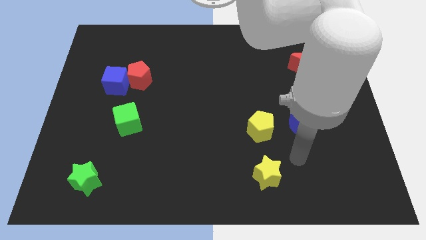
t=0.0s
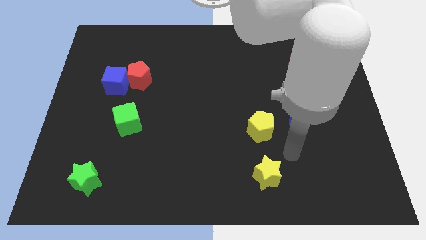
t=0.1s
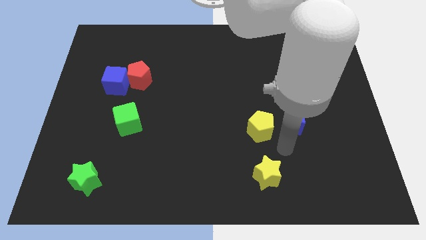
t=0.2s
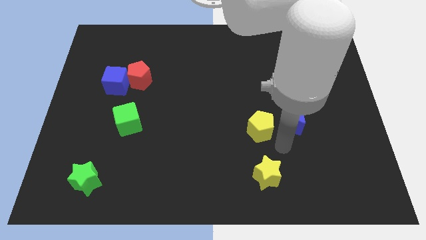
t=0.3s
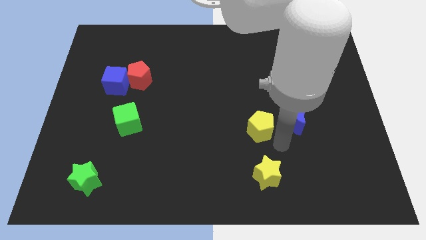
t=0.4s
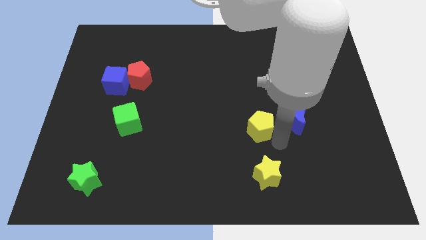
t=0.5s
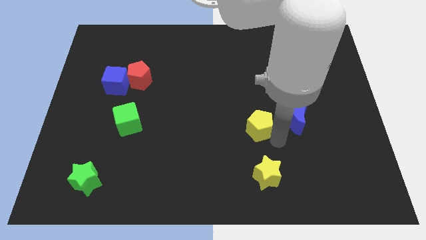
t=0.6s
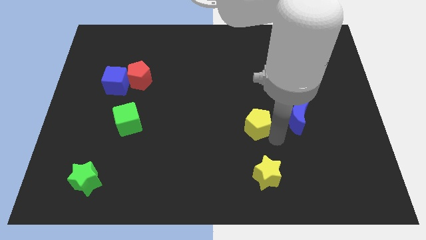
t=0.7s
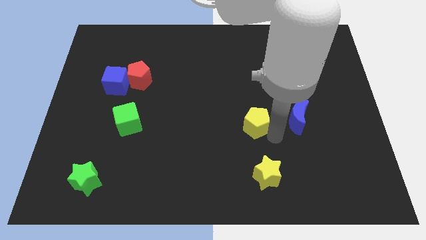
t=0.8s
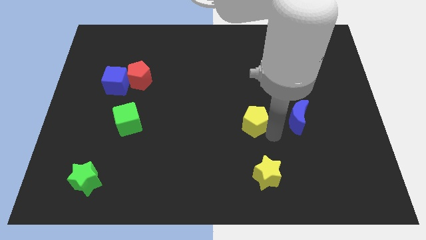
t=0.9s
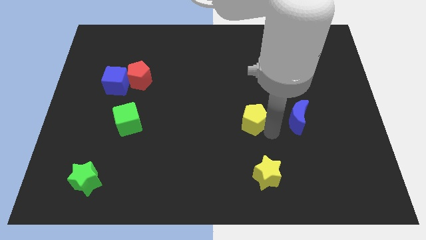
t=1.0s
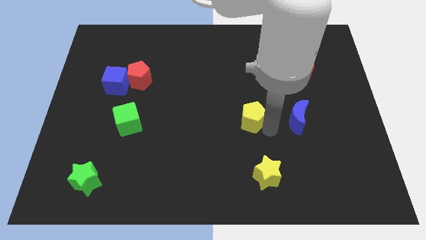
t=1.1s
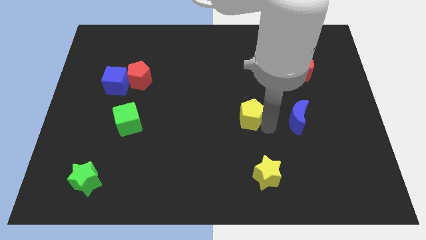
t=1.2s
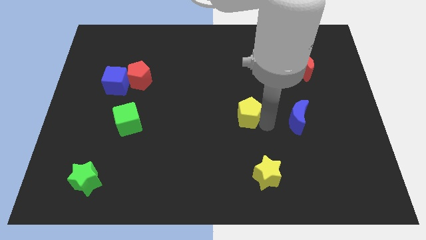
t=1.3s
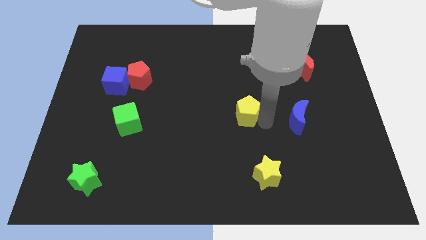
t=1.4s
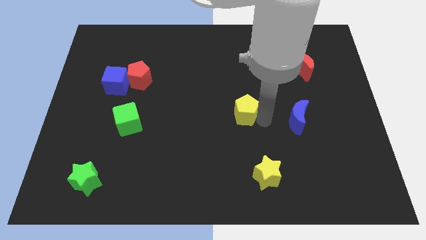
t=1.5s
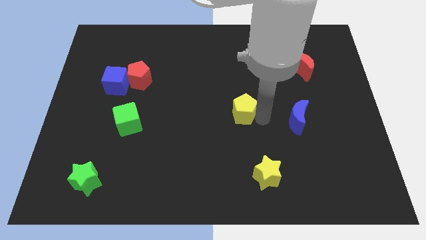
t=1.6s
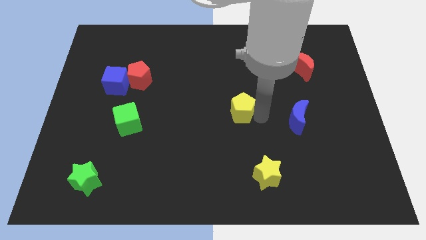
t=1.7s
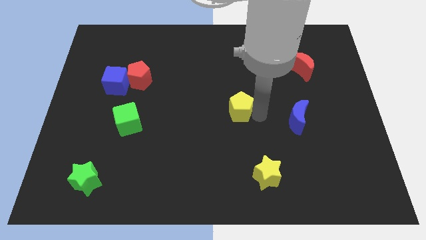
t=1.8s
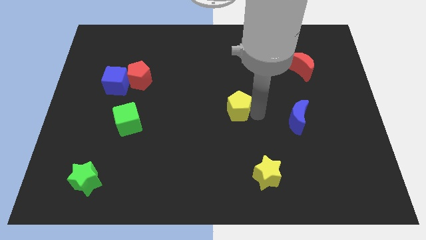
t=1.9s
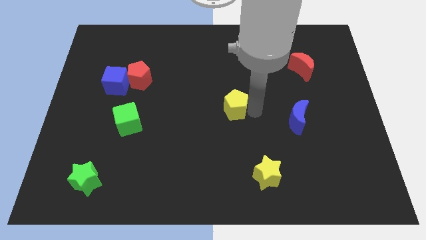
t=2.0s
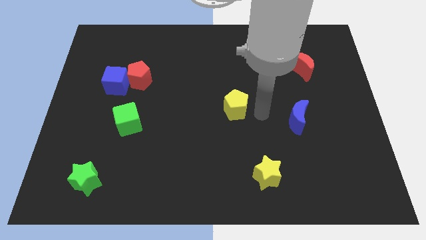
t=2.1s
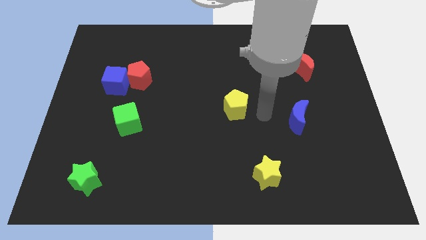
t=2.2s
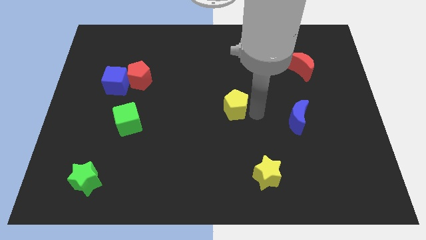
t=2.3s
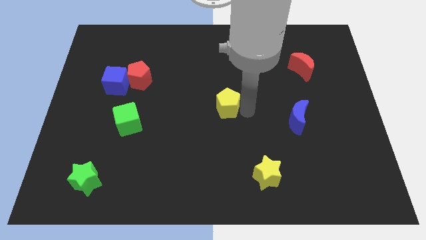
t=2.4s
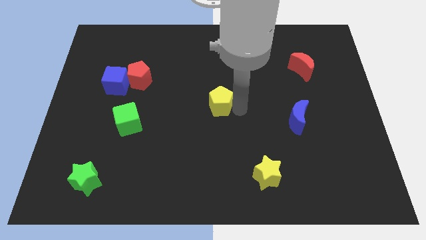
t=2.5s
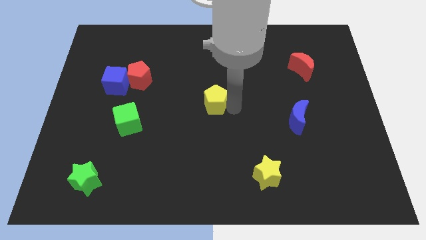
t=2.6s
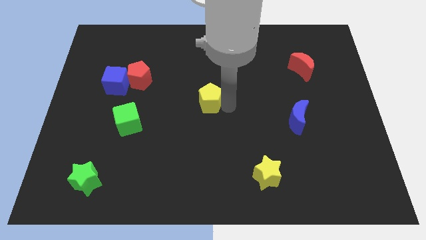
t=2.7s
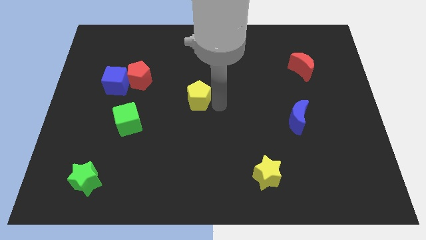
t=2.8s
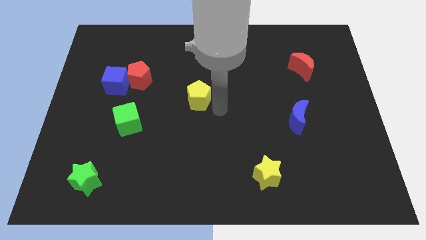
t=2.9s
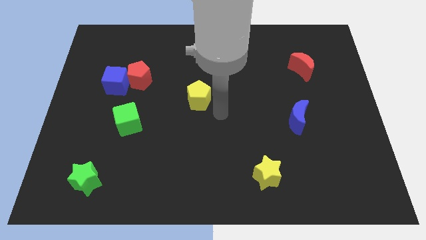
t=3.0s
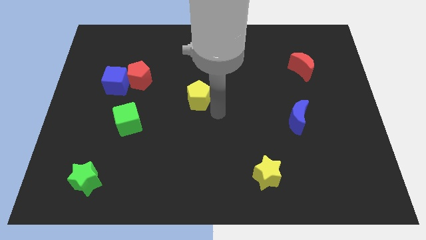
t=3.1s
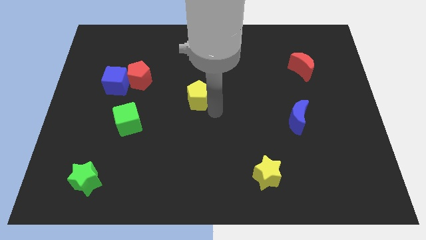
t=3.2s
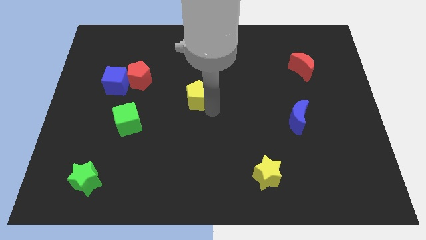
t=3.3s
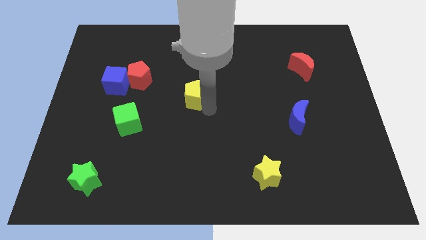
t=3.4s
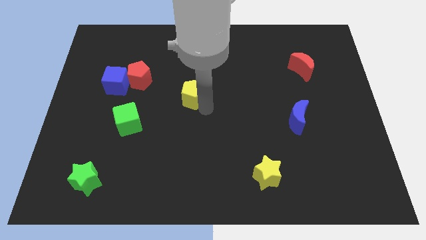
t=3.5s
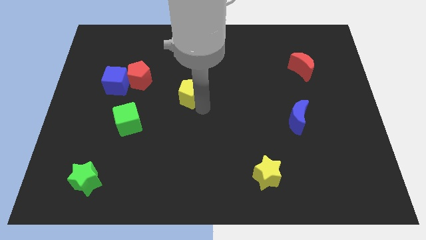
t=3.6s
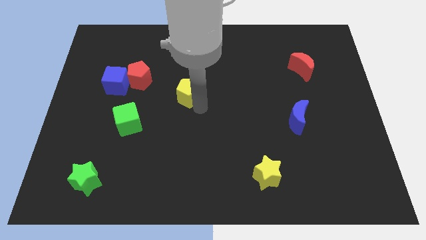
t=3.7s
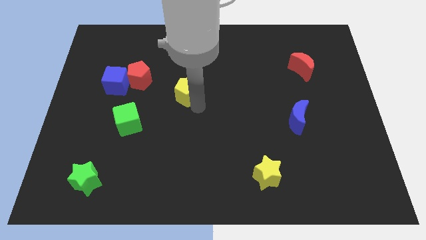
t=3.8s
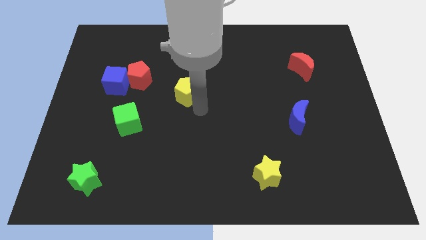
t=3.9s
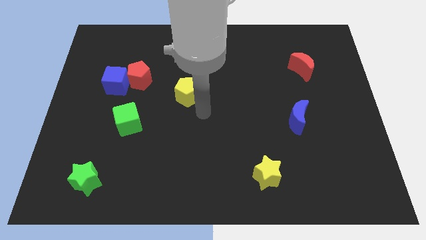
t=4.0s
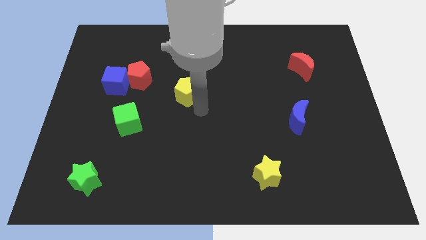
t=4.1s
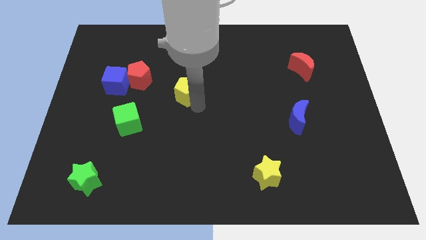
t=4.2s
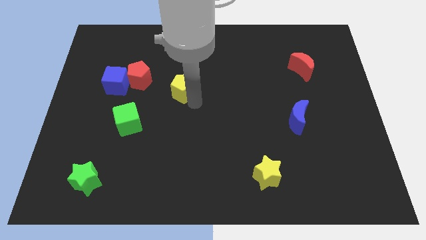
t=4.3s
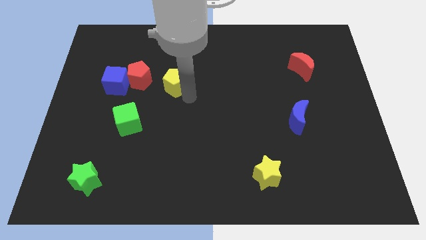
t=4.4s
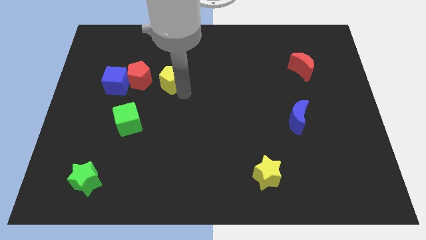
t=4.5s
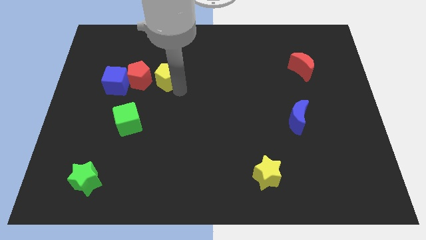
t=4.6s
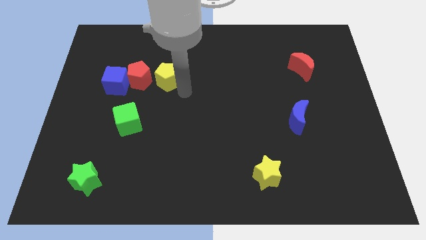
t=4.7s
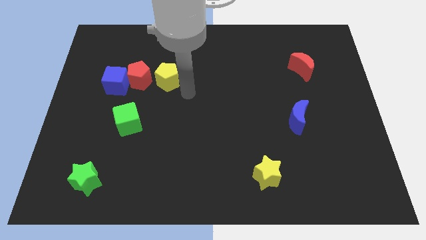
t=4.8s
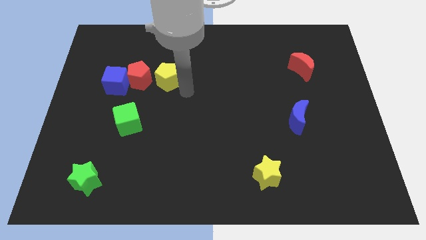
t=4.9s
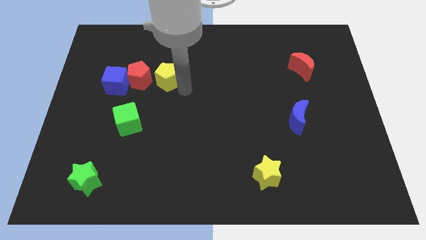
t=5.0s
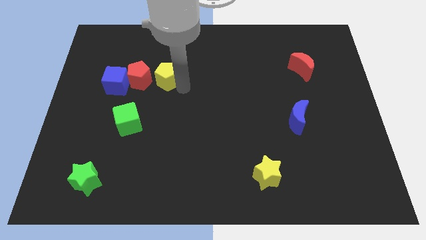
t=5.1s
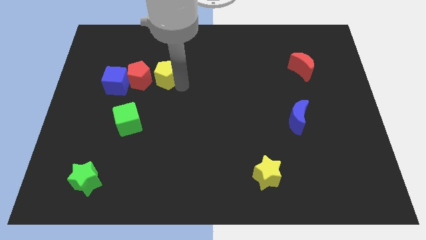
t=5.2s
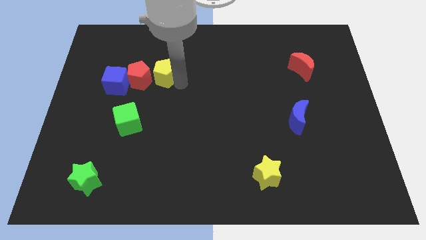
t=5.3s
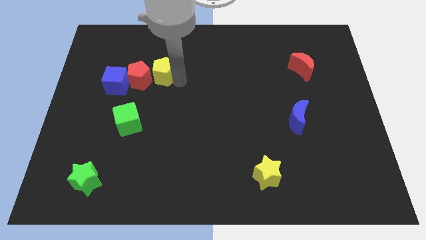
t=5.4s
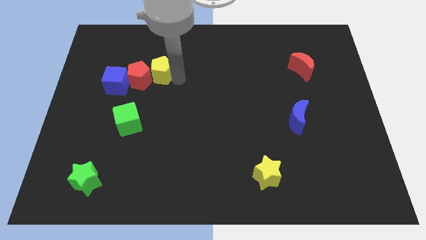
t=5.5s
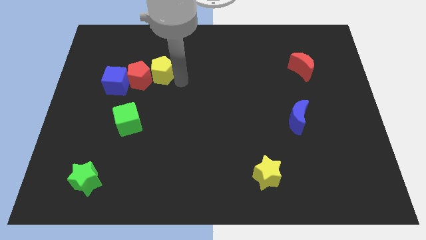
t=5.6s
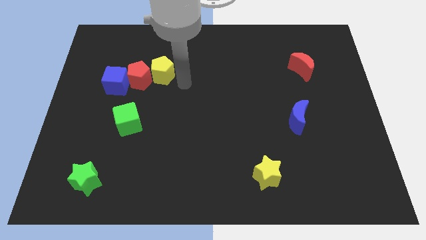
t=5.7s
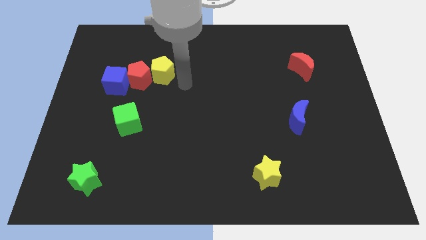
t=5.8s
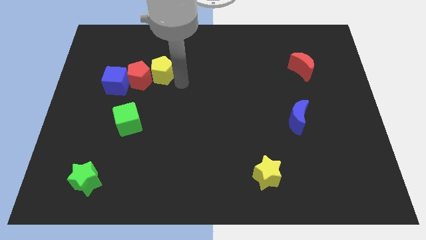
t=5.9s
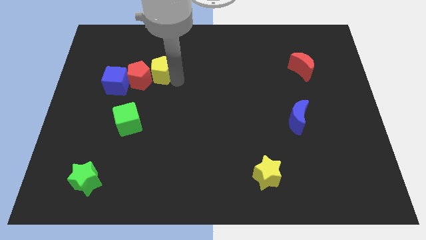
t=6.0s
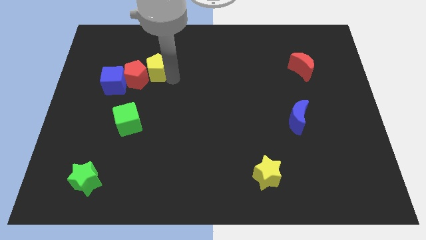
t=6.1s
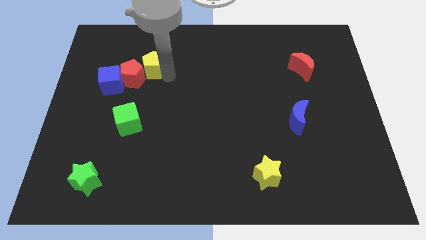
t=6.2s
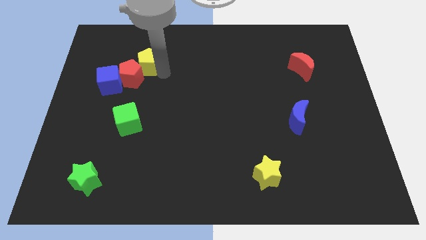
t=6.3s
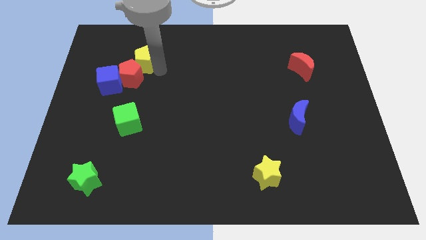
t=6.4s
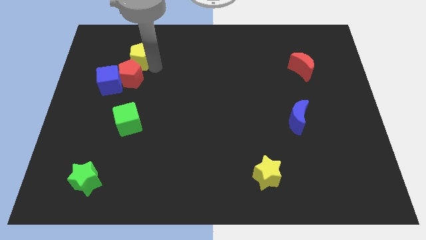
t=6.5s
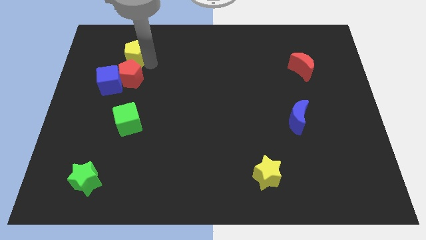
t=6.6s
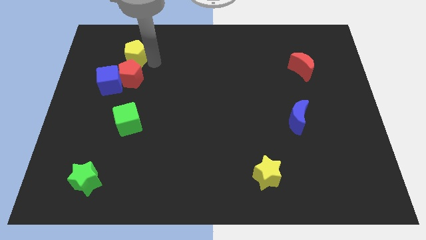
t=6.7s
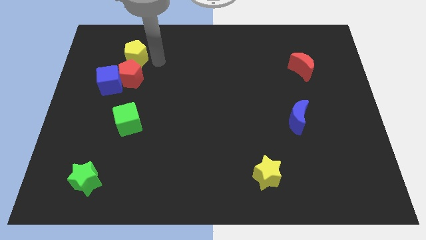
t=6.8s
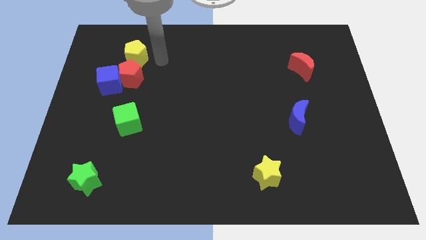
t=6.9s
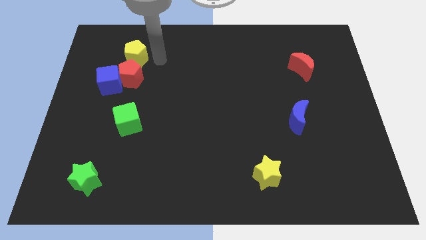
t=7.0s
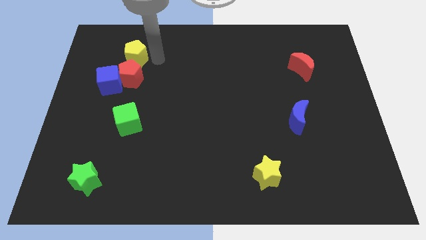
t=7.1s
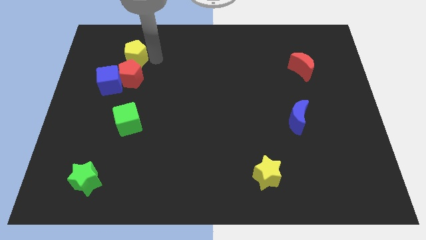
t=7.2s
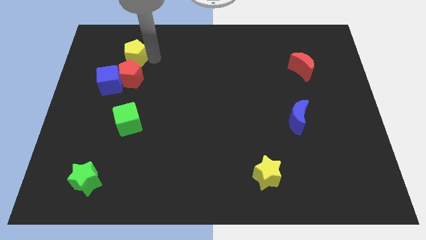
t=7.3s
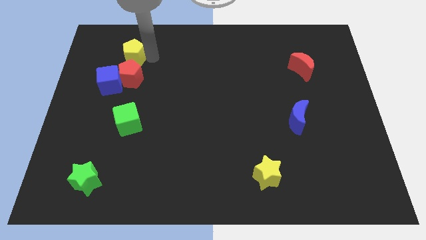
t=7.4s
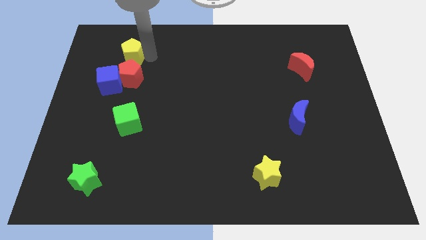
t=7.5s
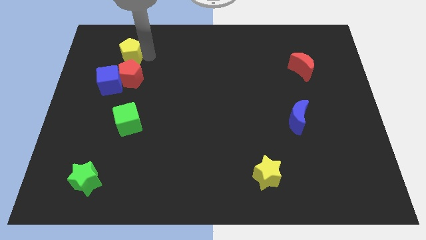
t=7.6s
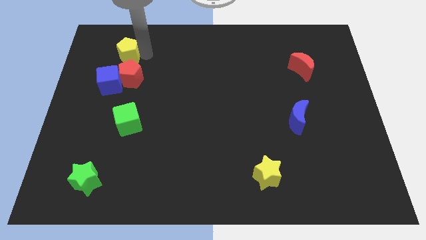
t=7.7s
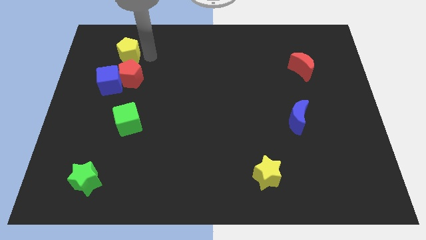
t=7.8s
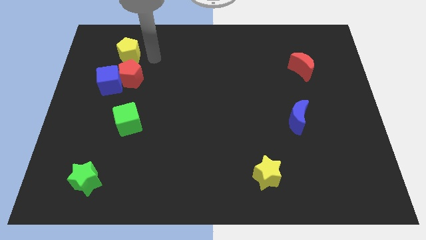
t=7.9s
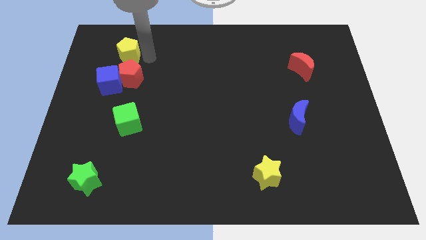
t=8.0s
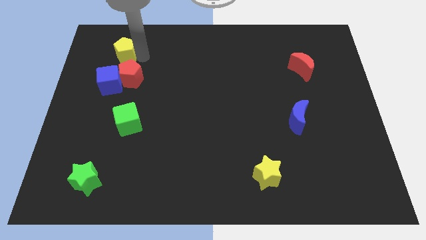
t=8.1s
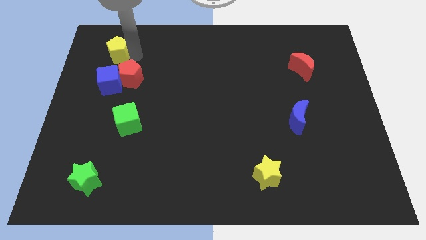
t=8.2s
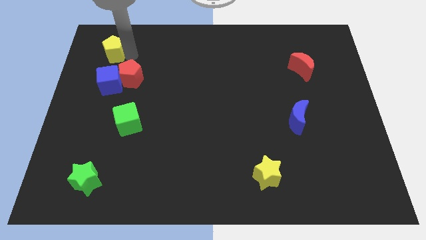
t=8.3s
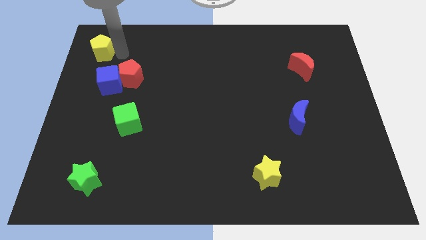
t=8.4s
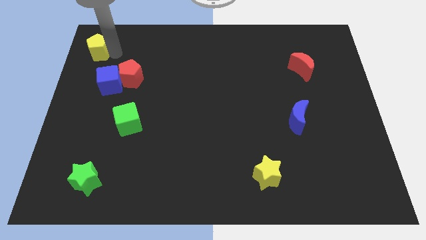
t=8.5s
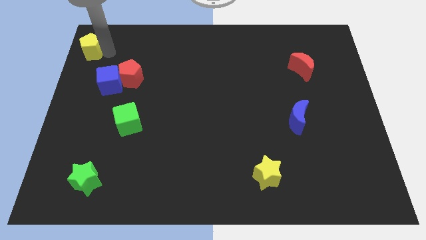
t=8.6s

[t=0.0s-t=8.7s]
move the yellow pentagon to the top left corner
